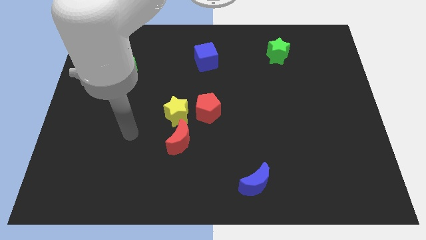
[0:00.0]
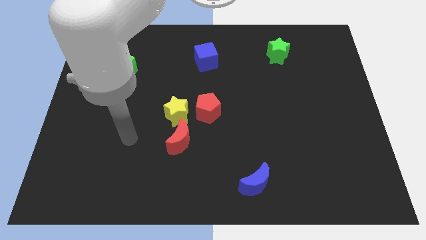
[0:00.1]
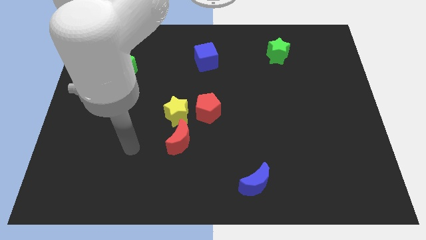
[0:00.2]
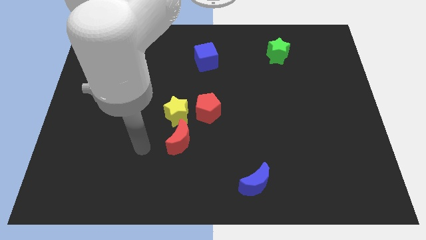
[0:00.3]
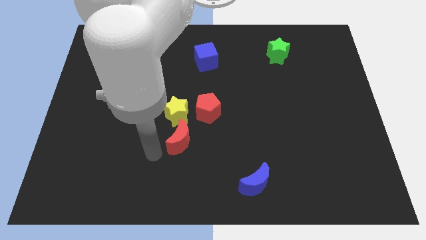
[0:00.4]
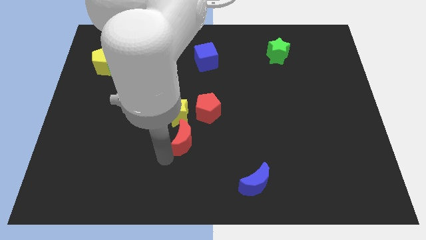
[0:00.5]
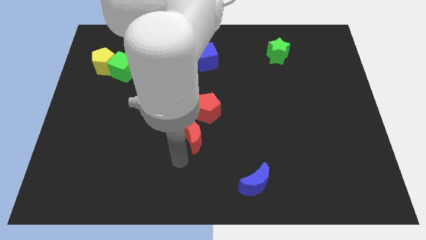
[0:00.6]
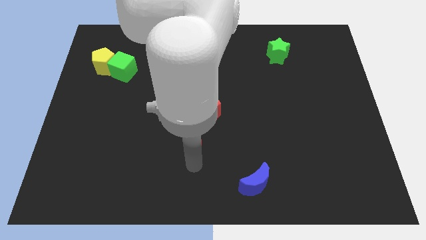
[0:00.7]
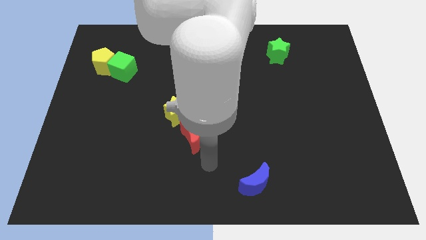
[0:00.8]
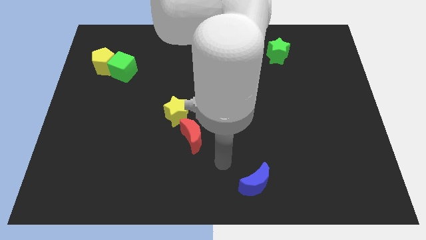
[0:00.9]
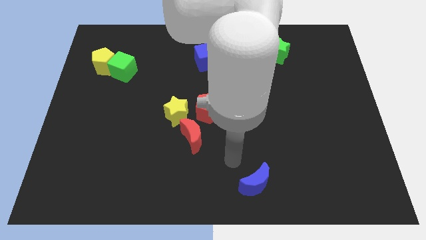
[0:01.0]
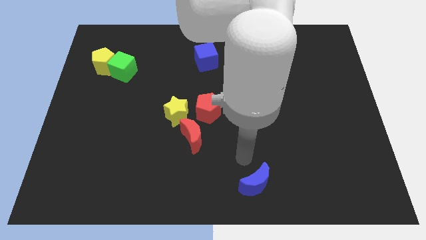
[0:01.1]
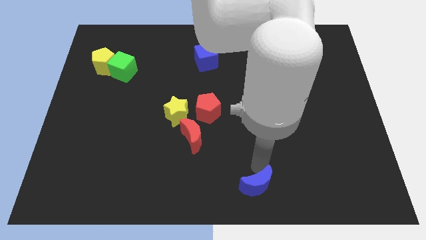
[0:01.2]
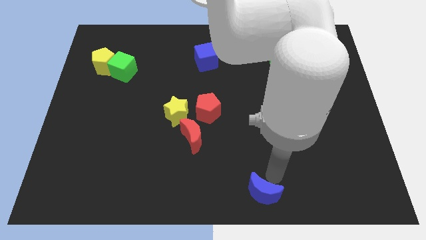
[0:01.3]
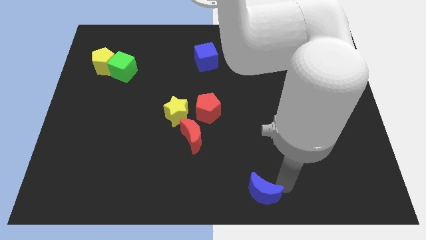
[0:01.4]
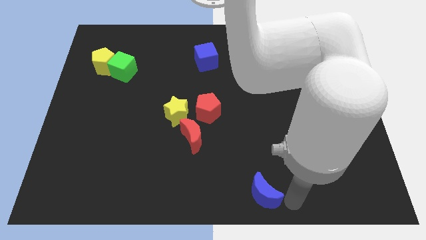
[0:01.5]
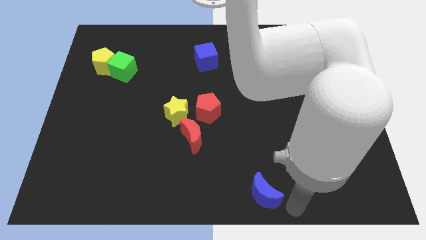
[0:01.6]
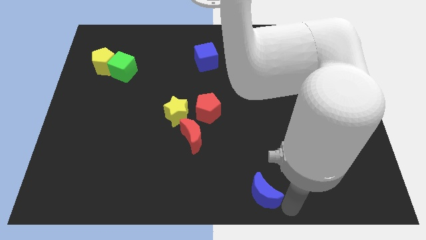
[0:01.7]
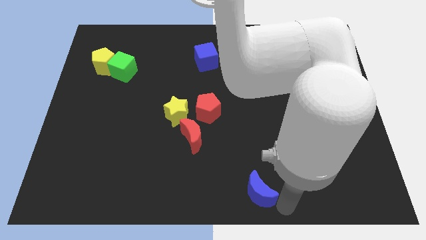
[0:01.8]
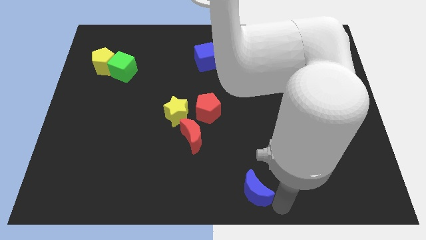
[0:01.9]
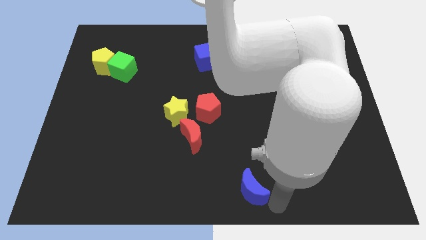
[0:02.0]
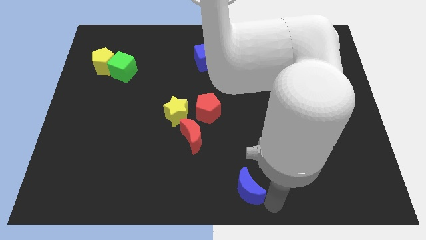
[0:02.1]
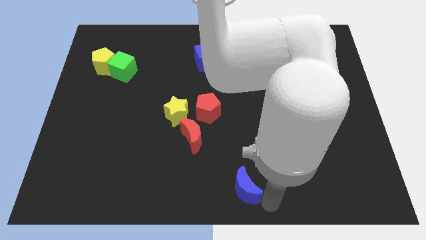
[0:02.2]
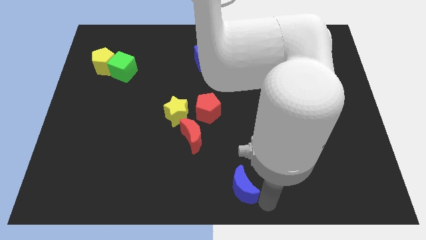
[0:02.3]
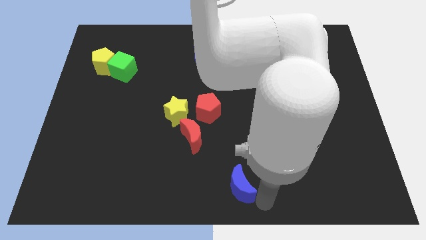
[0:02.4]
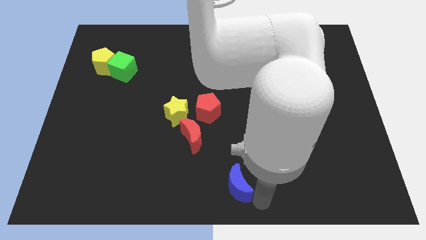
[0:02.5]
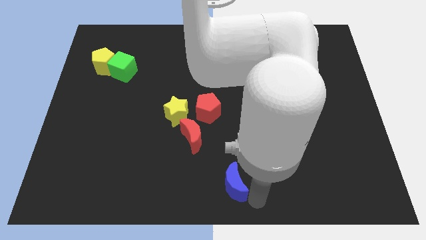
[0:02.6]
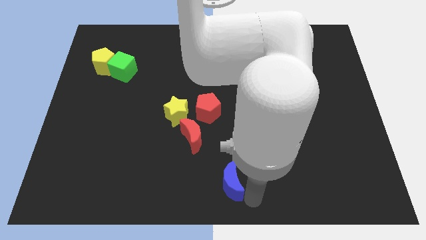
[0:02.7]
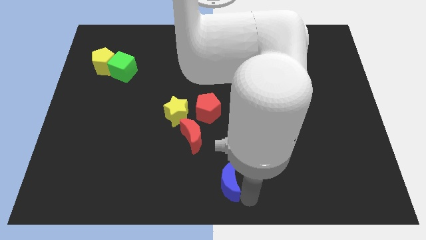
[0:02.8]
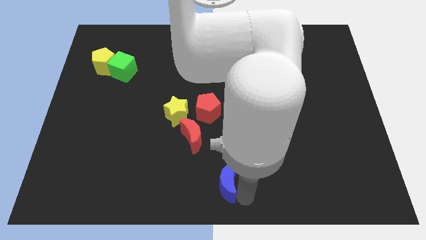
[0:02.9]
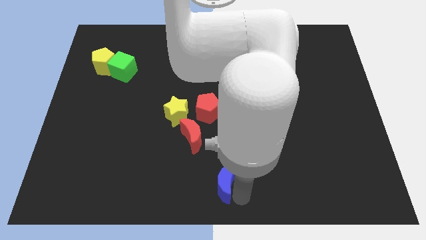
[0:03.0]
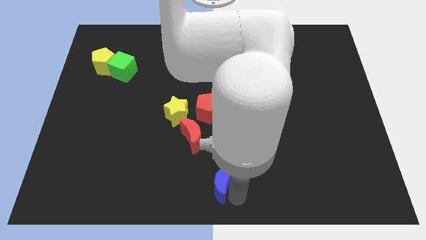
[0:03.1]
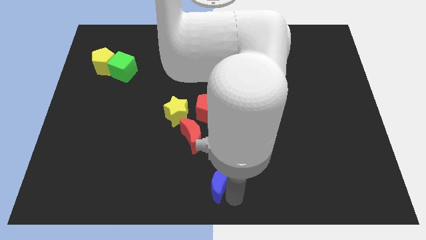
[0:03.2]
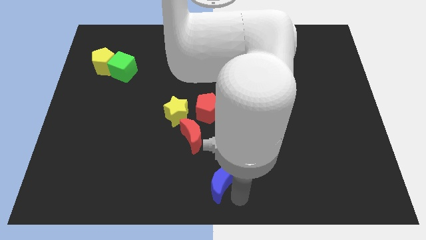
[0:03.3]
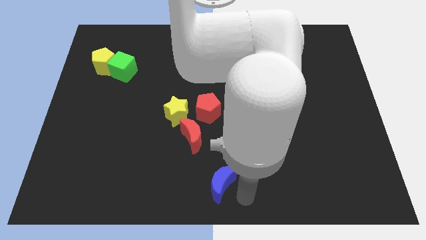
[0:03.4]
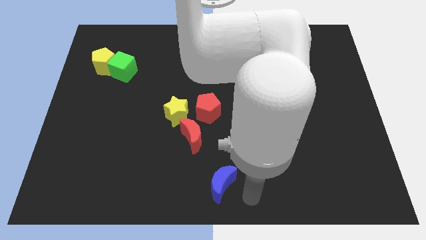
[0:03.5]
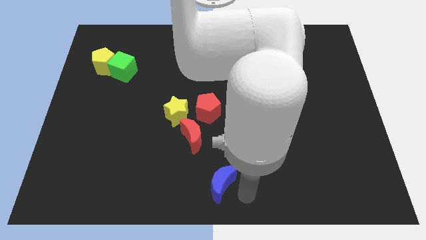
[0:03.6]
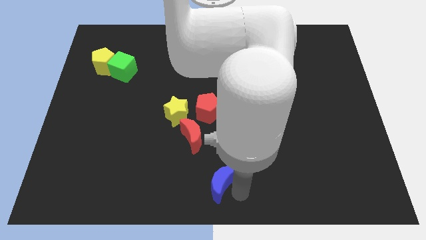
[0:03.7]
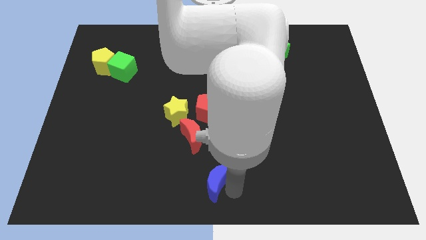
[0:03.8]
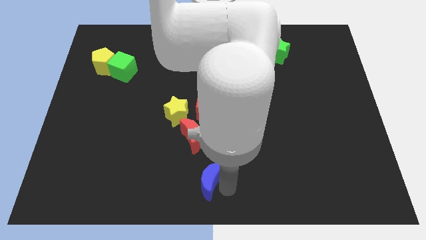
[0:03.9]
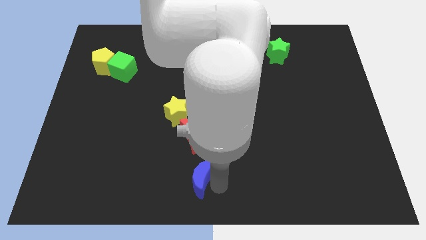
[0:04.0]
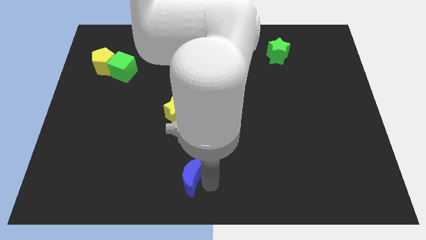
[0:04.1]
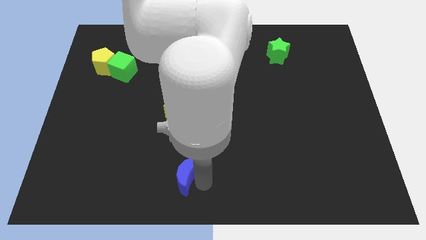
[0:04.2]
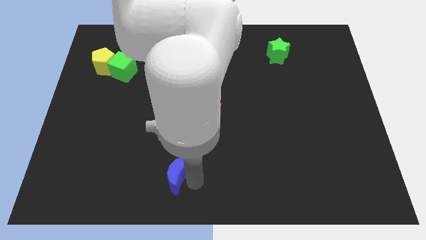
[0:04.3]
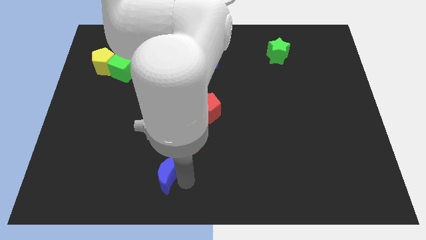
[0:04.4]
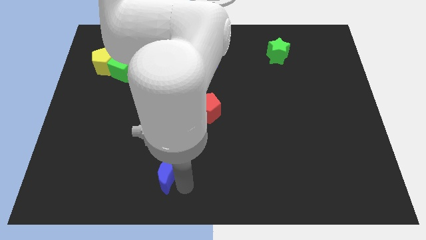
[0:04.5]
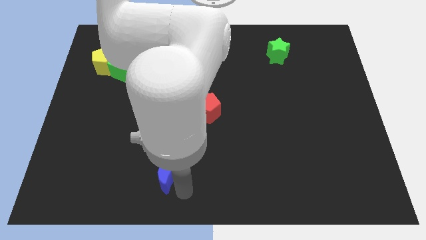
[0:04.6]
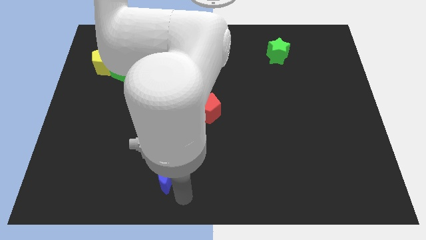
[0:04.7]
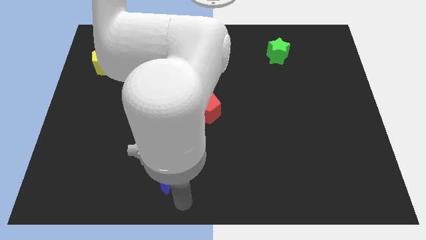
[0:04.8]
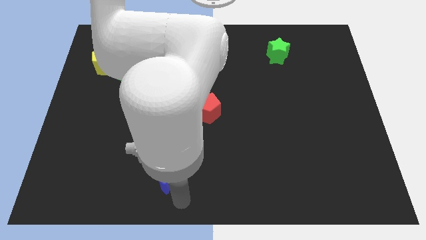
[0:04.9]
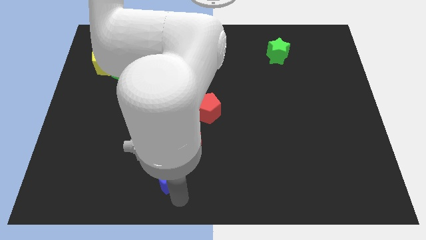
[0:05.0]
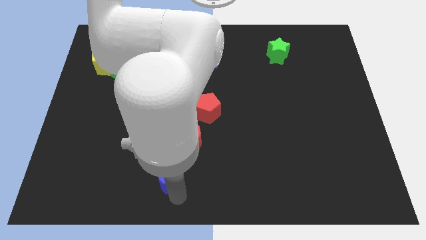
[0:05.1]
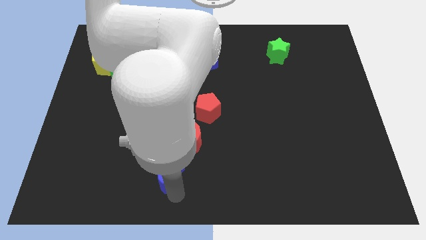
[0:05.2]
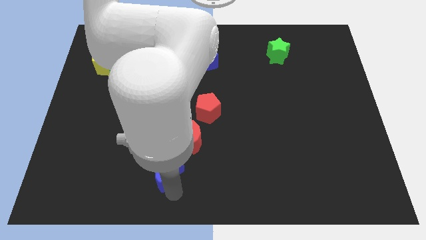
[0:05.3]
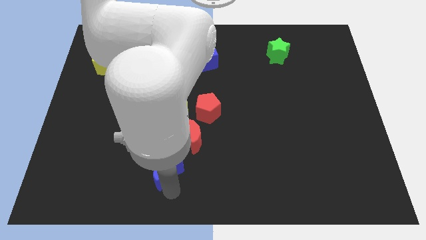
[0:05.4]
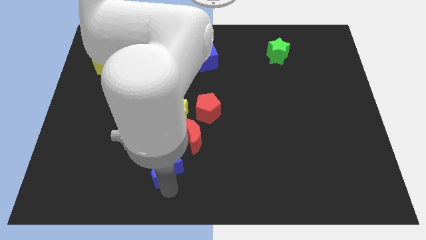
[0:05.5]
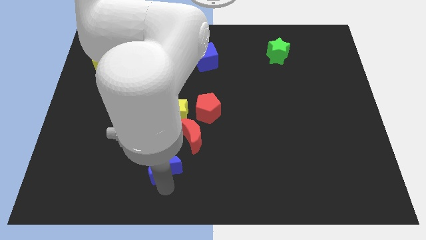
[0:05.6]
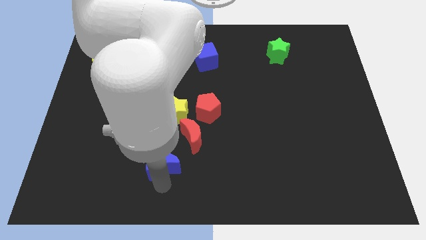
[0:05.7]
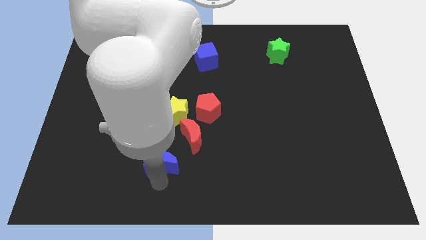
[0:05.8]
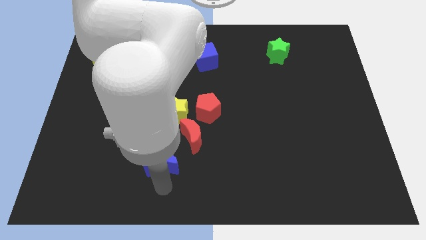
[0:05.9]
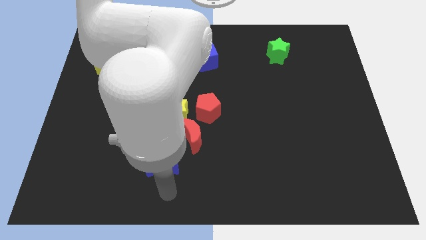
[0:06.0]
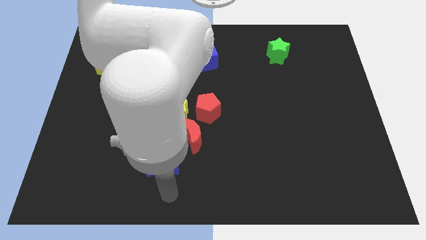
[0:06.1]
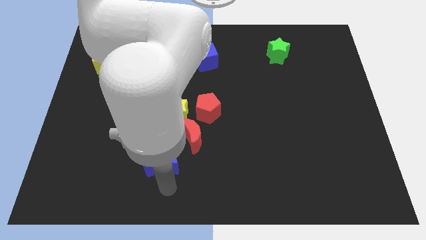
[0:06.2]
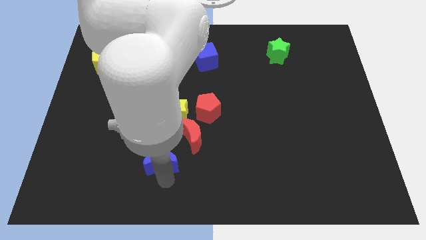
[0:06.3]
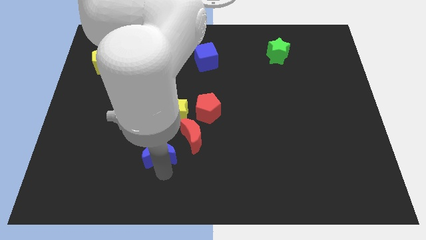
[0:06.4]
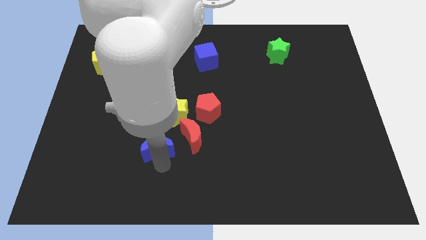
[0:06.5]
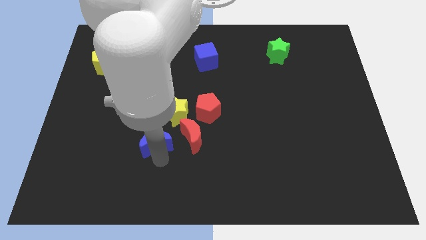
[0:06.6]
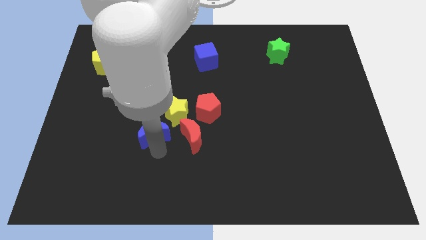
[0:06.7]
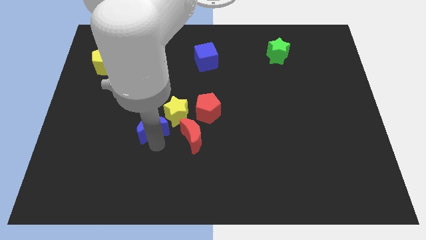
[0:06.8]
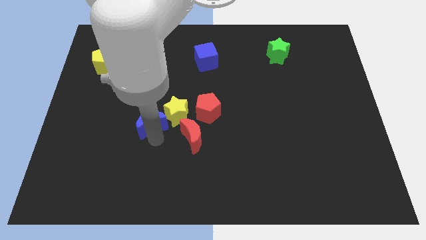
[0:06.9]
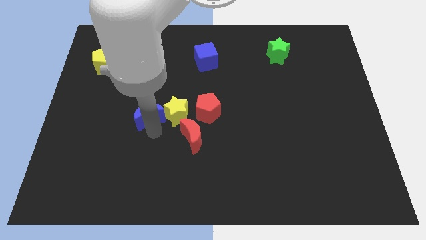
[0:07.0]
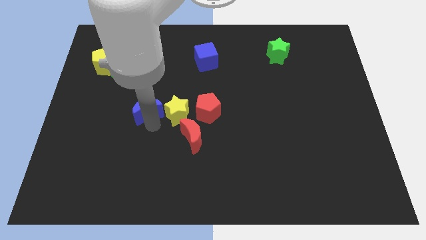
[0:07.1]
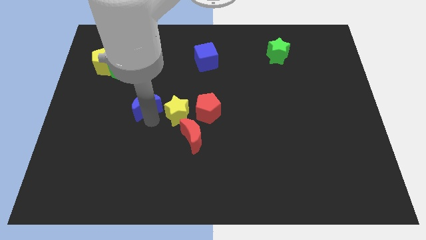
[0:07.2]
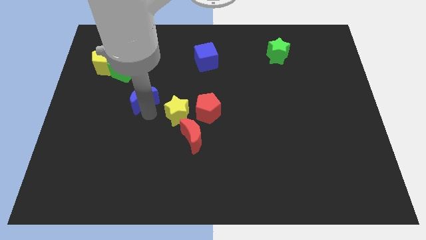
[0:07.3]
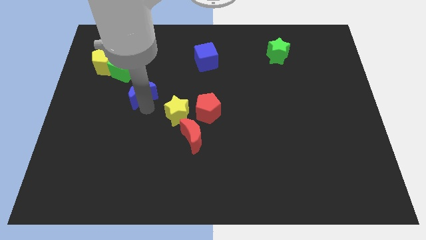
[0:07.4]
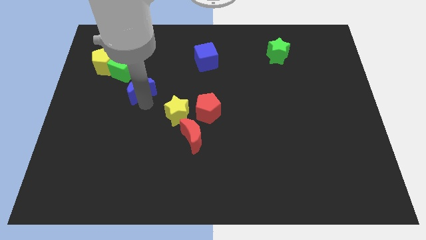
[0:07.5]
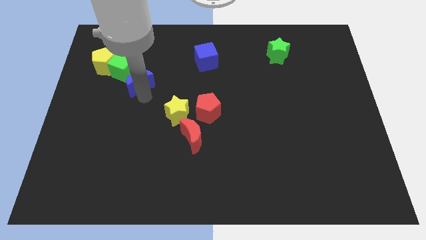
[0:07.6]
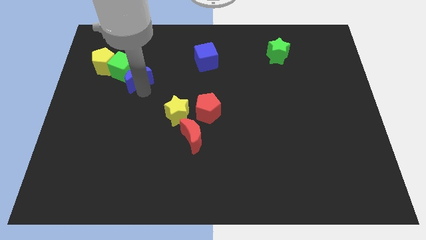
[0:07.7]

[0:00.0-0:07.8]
put the blue moon to the green cube
